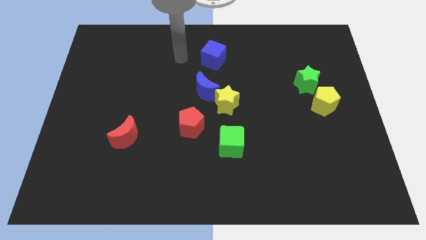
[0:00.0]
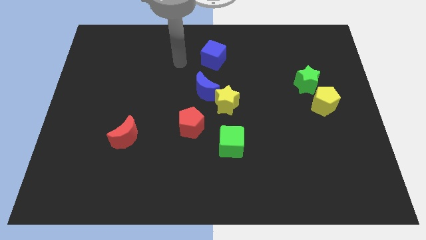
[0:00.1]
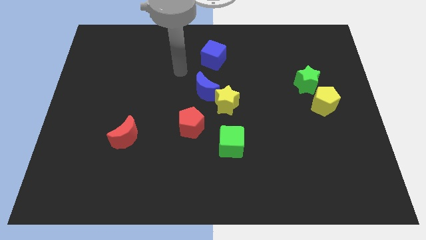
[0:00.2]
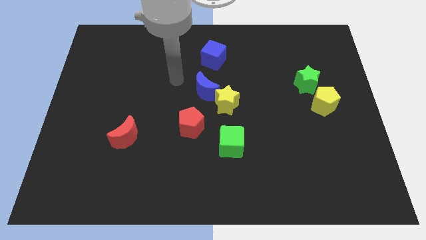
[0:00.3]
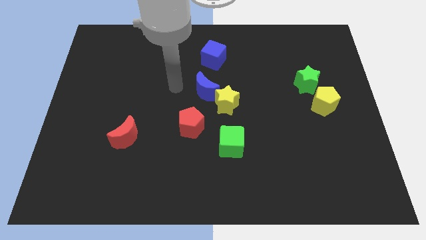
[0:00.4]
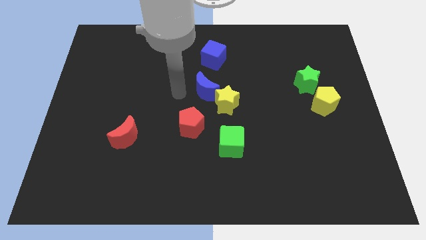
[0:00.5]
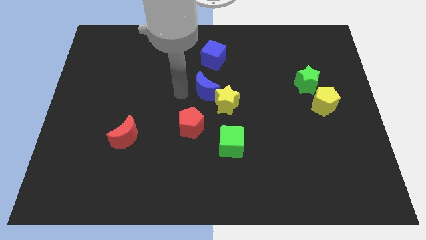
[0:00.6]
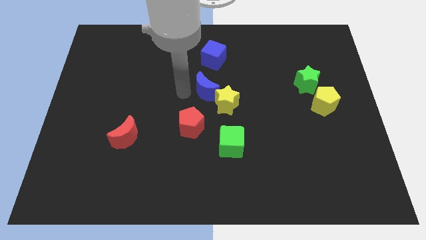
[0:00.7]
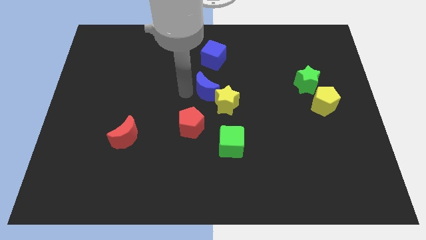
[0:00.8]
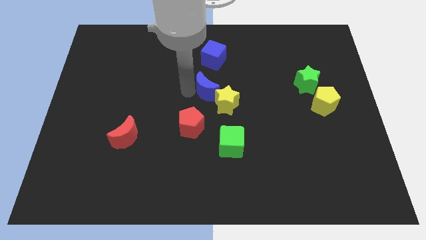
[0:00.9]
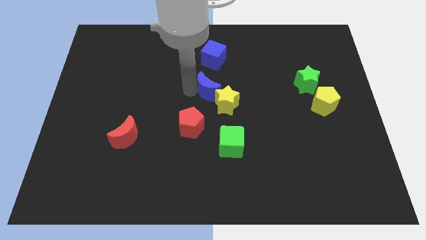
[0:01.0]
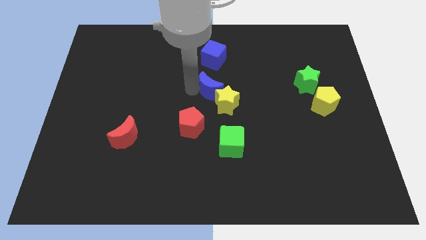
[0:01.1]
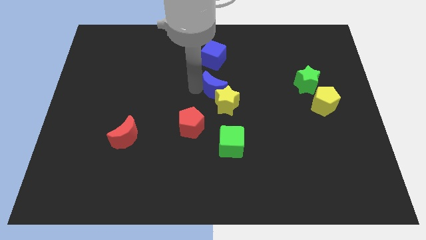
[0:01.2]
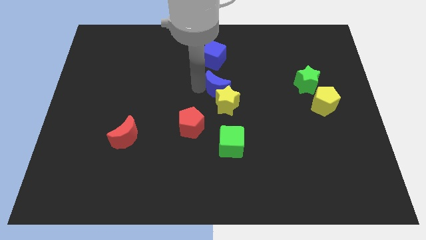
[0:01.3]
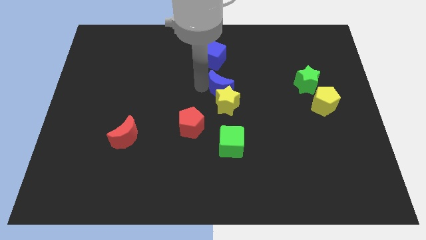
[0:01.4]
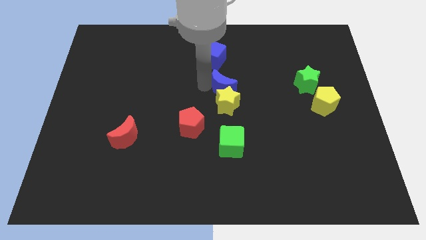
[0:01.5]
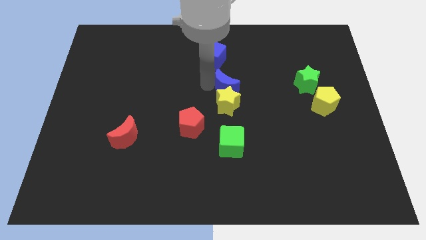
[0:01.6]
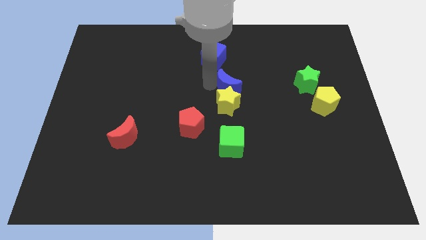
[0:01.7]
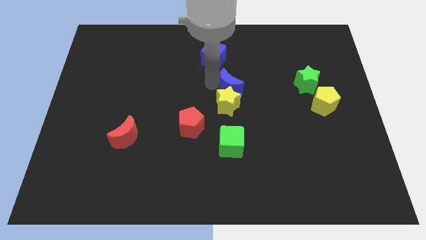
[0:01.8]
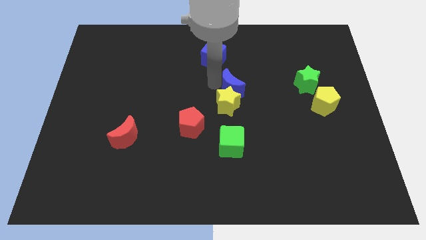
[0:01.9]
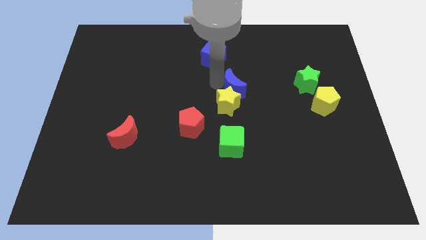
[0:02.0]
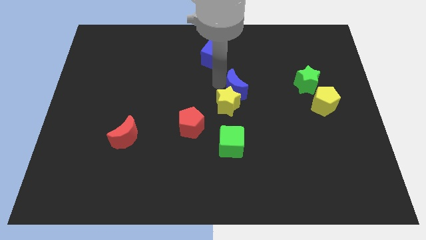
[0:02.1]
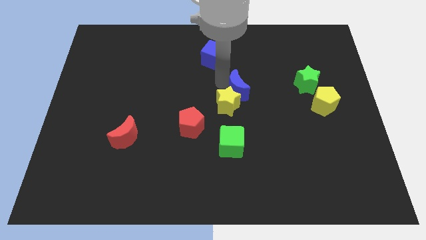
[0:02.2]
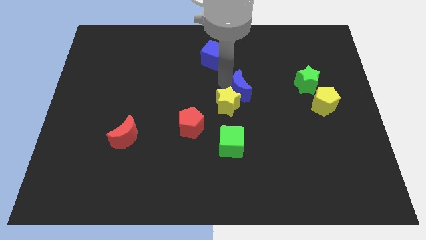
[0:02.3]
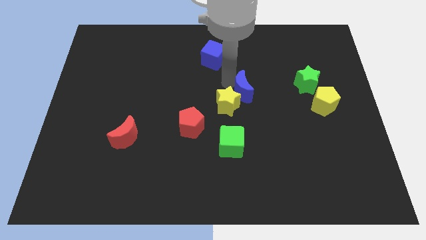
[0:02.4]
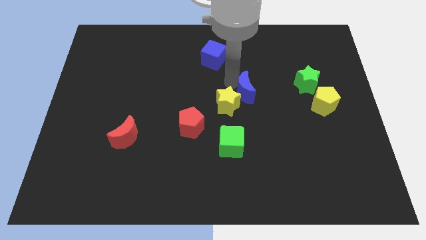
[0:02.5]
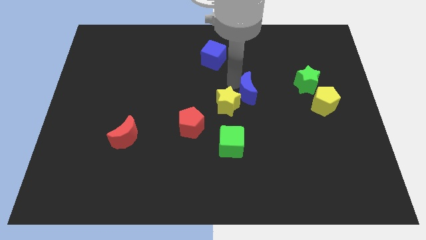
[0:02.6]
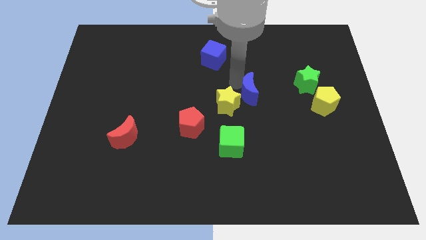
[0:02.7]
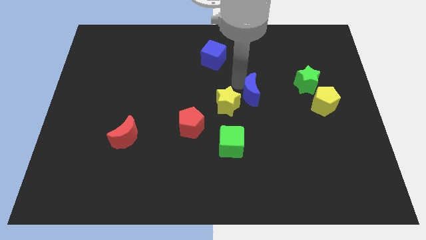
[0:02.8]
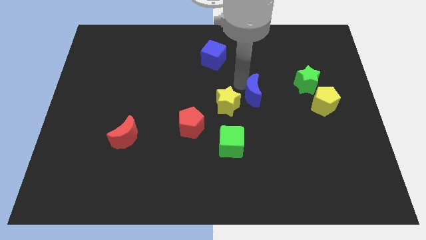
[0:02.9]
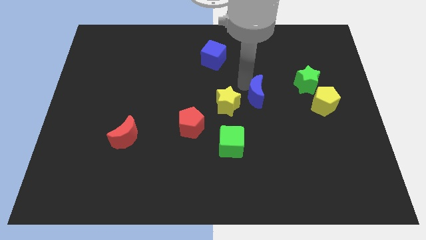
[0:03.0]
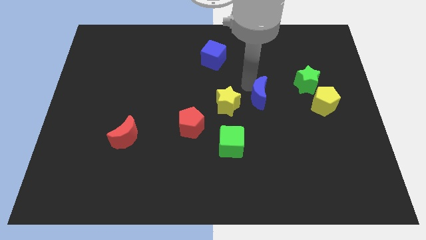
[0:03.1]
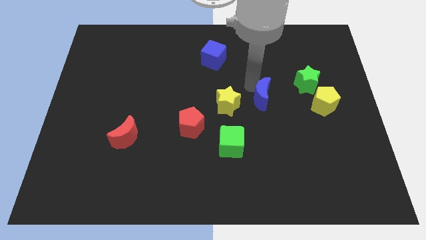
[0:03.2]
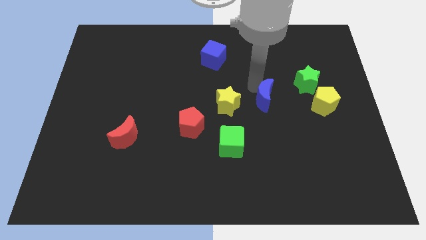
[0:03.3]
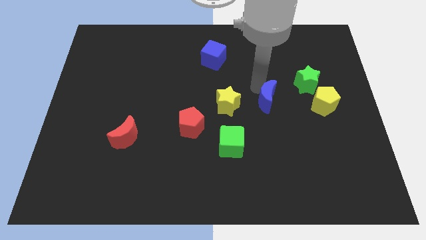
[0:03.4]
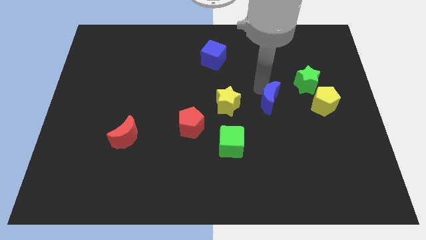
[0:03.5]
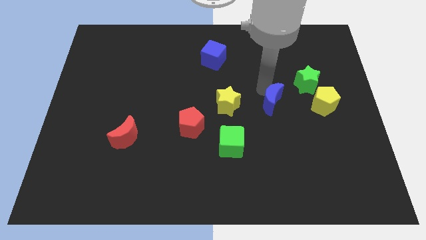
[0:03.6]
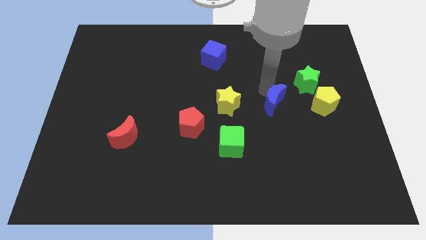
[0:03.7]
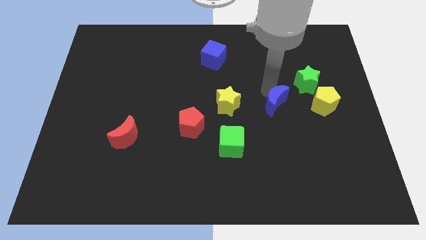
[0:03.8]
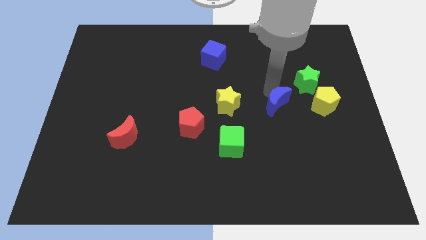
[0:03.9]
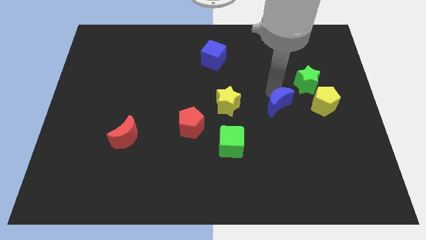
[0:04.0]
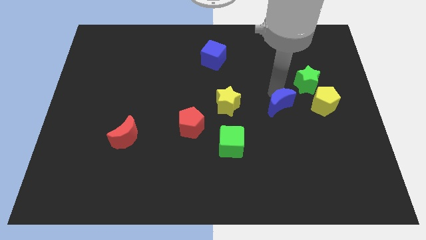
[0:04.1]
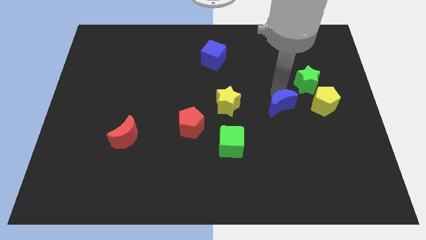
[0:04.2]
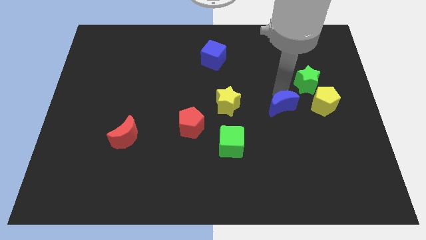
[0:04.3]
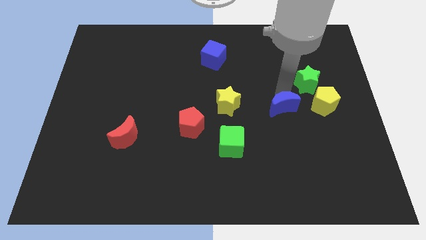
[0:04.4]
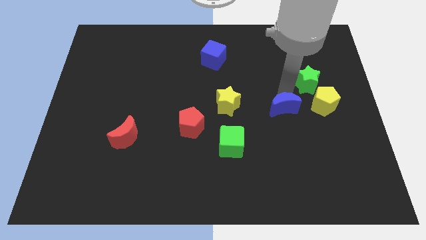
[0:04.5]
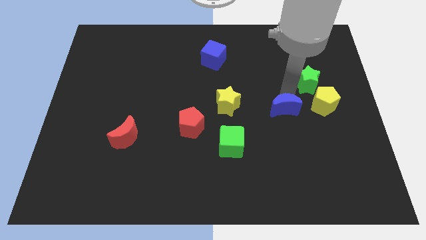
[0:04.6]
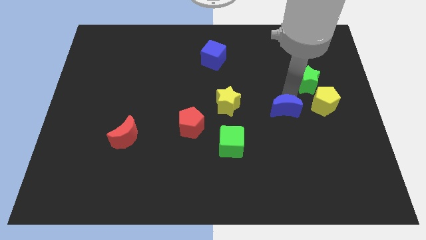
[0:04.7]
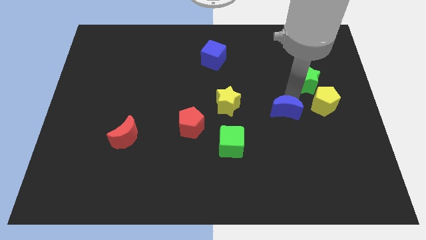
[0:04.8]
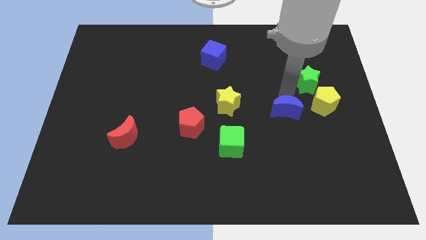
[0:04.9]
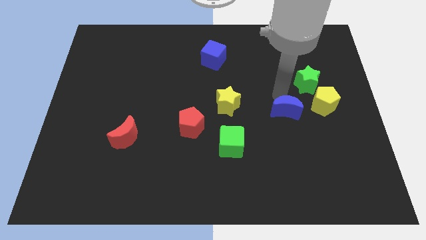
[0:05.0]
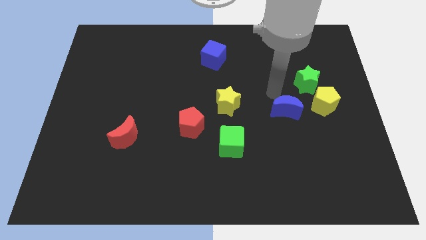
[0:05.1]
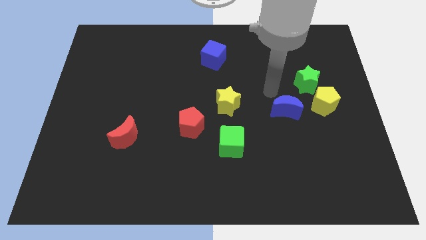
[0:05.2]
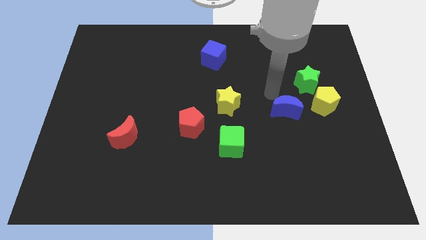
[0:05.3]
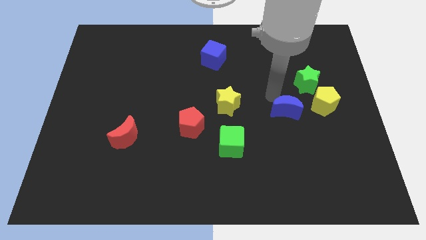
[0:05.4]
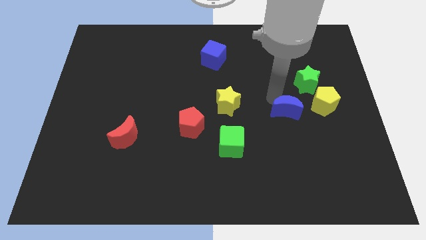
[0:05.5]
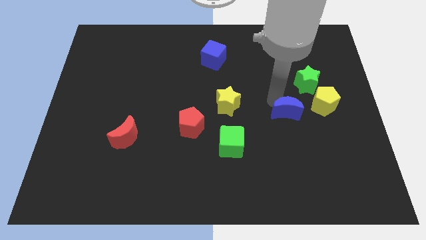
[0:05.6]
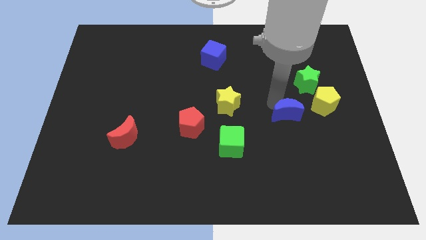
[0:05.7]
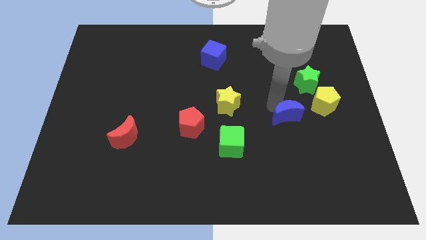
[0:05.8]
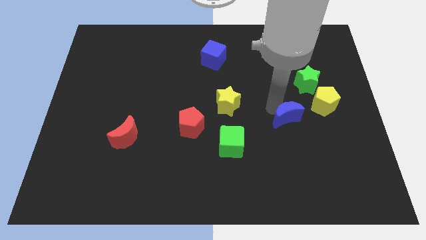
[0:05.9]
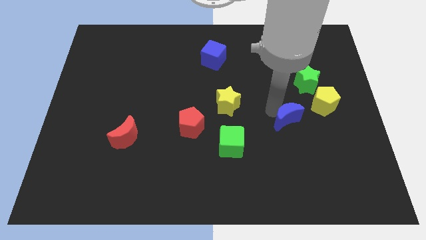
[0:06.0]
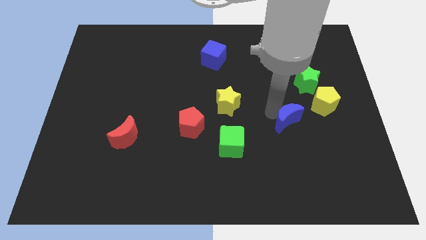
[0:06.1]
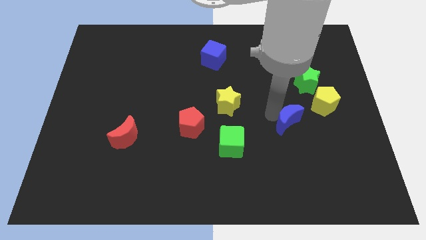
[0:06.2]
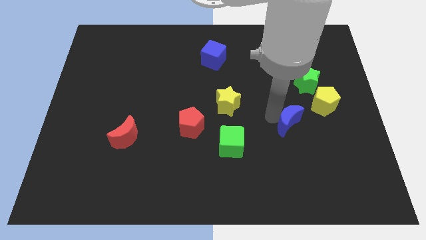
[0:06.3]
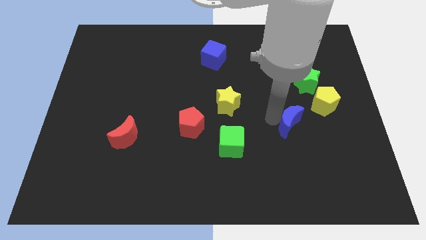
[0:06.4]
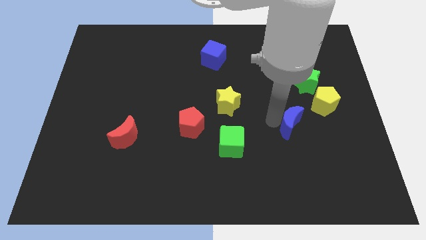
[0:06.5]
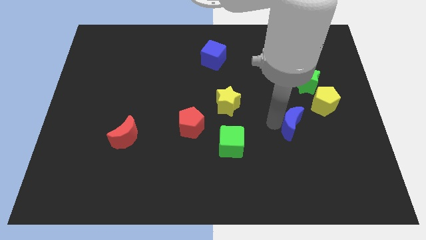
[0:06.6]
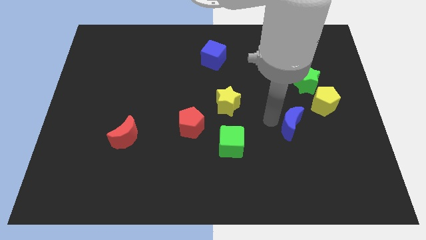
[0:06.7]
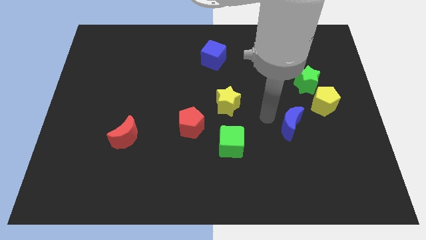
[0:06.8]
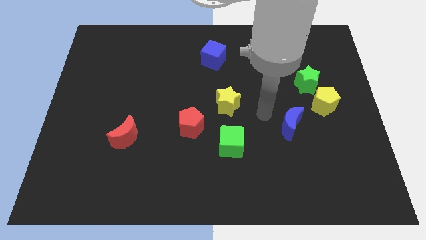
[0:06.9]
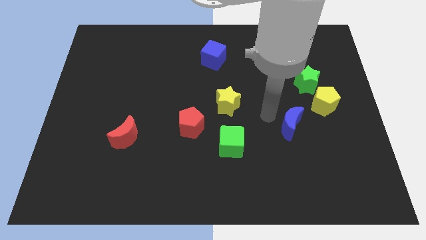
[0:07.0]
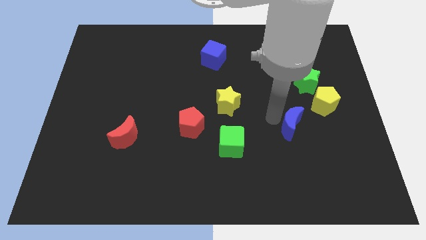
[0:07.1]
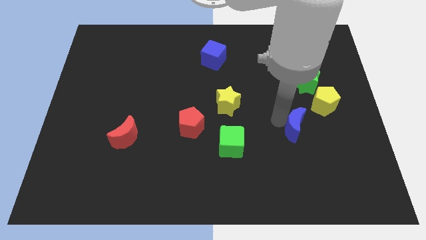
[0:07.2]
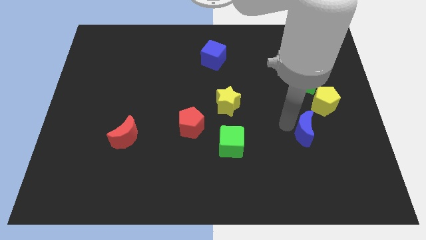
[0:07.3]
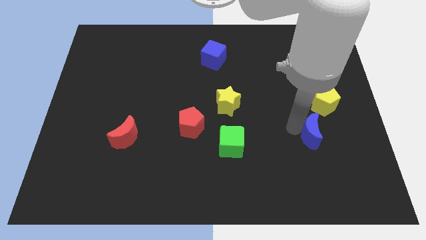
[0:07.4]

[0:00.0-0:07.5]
push the blue moon to the bottom side of the yellow pentagon
